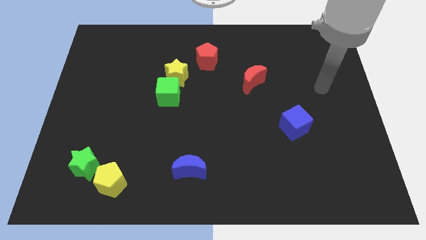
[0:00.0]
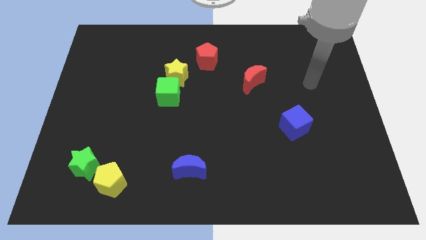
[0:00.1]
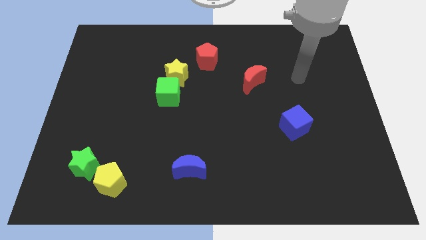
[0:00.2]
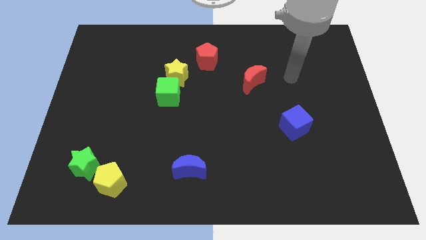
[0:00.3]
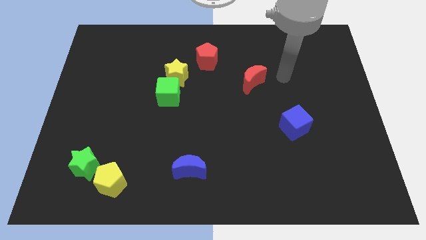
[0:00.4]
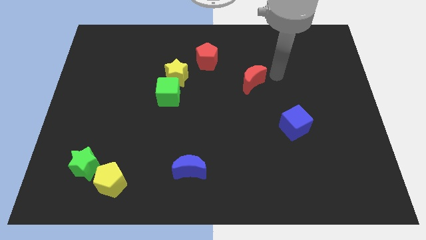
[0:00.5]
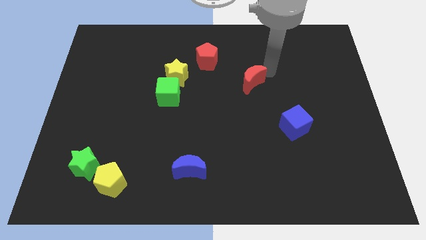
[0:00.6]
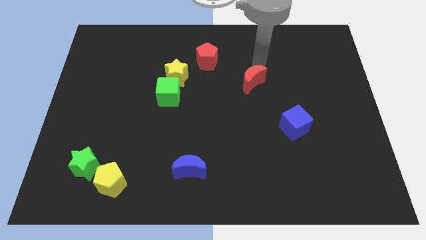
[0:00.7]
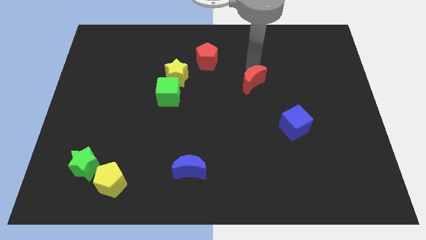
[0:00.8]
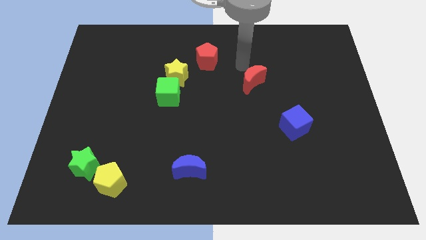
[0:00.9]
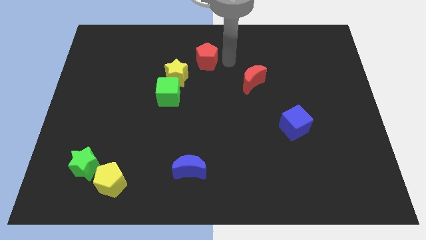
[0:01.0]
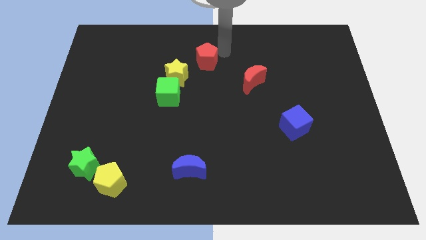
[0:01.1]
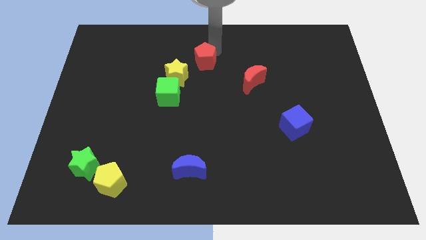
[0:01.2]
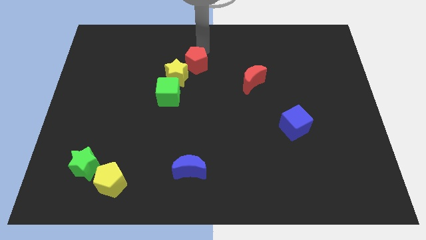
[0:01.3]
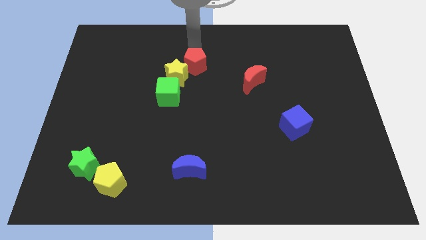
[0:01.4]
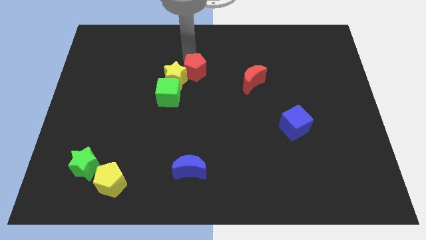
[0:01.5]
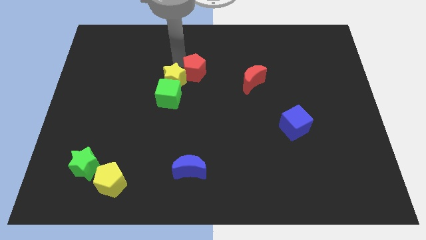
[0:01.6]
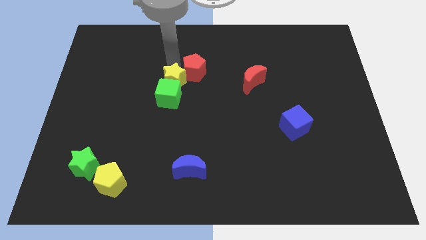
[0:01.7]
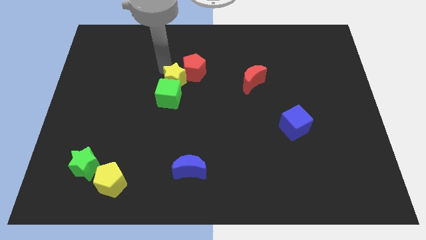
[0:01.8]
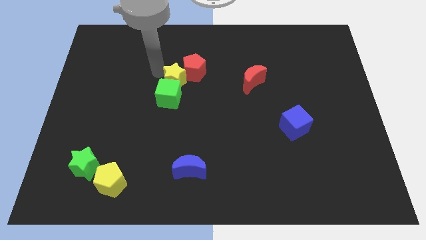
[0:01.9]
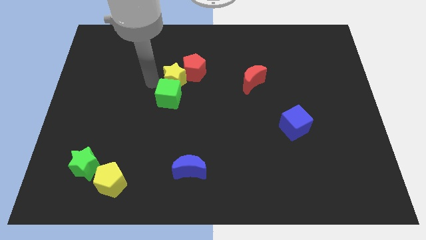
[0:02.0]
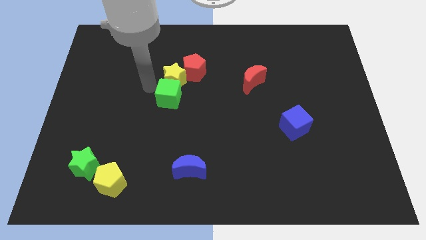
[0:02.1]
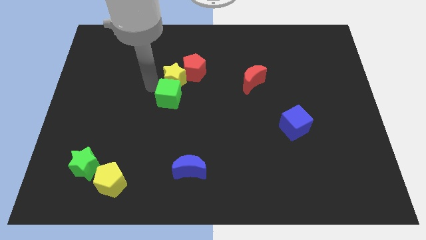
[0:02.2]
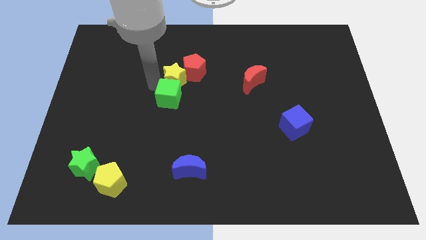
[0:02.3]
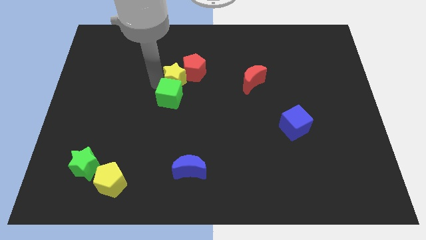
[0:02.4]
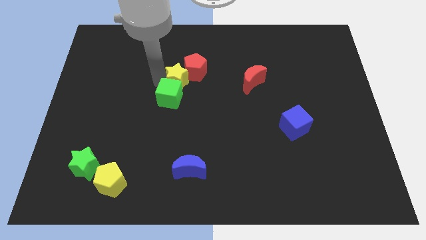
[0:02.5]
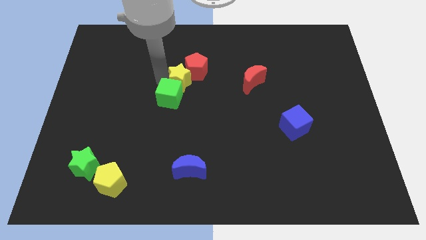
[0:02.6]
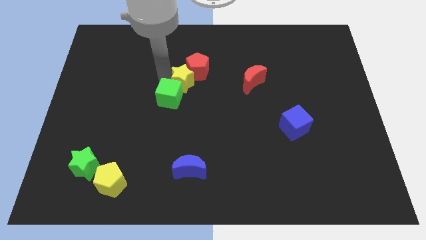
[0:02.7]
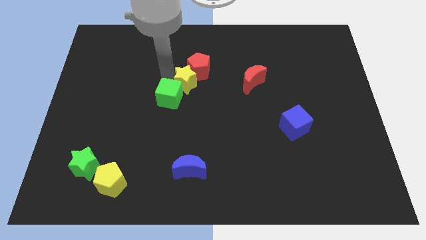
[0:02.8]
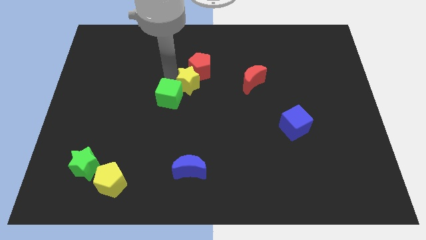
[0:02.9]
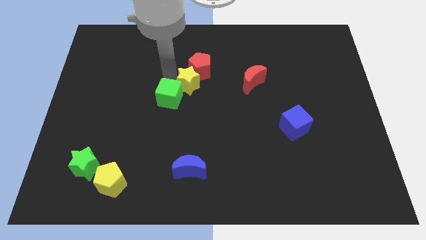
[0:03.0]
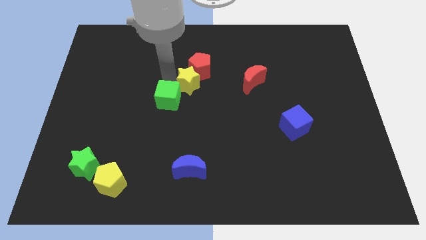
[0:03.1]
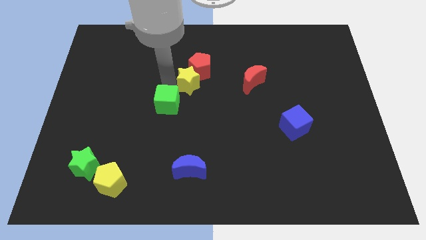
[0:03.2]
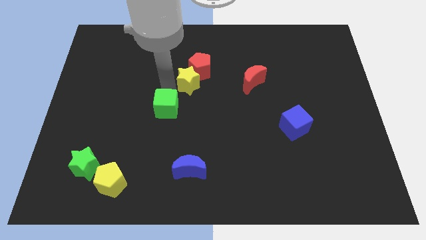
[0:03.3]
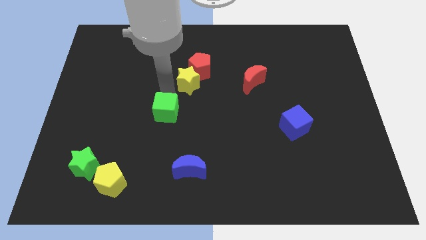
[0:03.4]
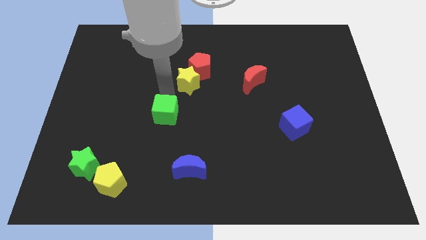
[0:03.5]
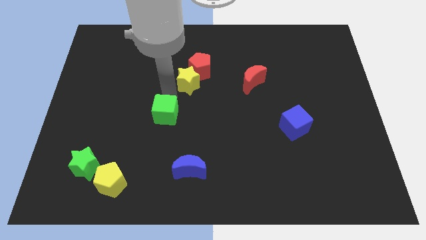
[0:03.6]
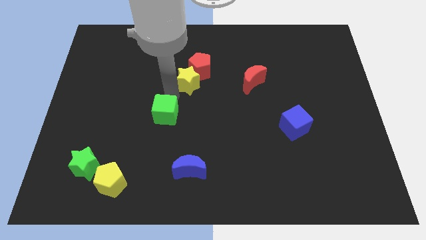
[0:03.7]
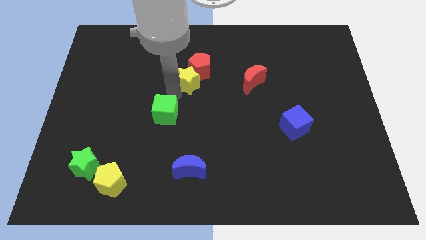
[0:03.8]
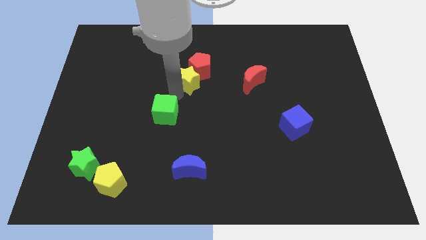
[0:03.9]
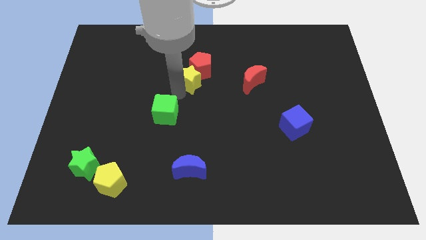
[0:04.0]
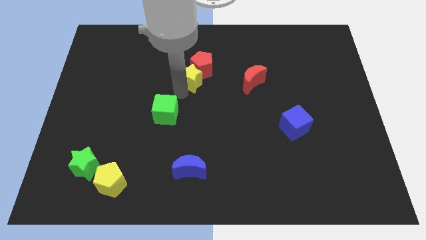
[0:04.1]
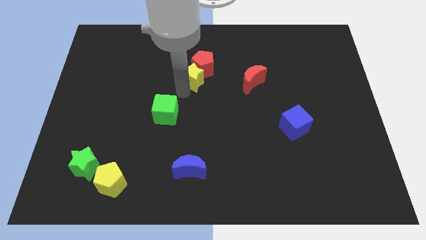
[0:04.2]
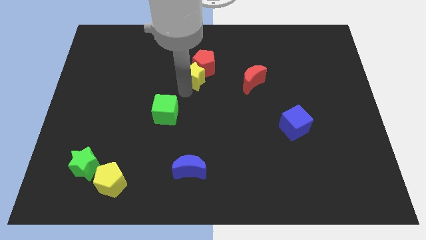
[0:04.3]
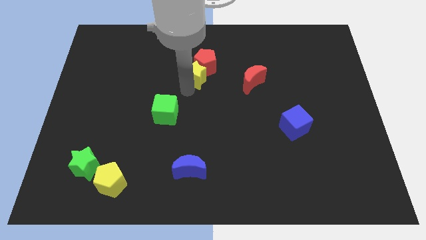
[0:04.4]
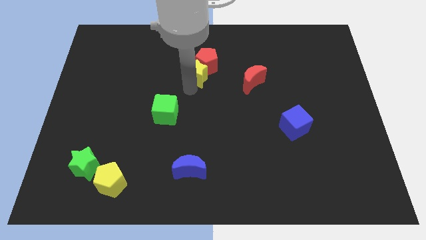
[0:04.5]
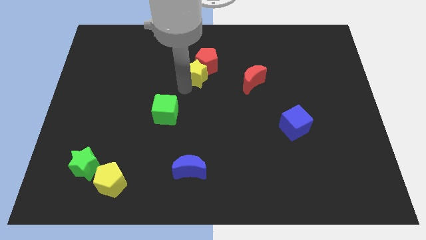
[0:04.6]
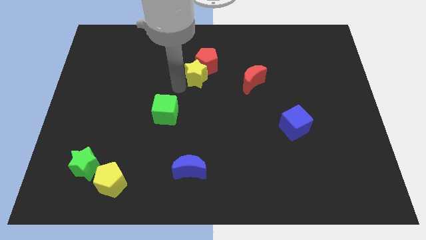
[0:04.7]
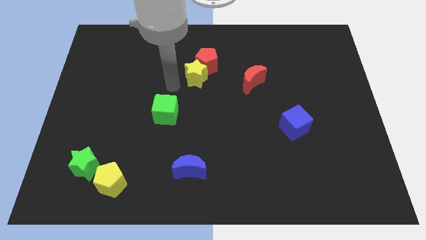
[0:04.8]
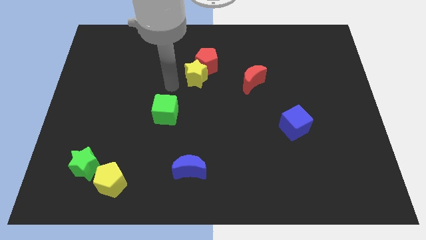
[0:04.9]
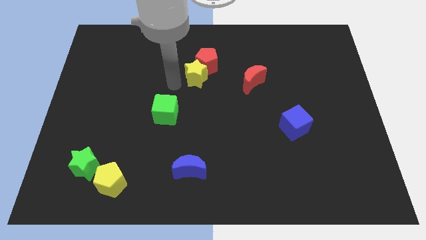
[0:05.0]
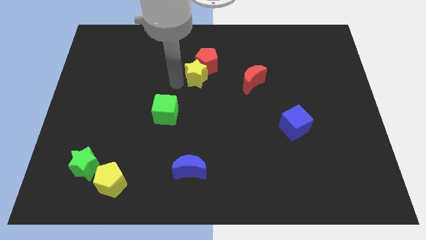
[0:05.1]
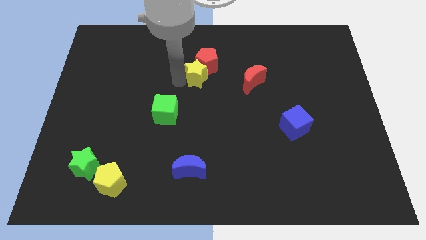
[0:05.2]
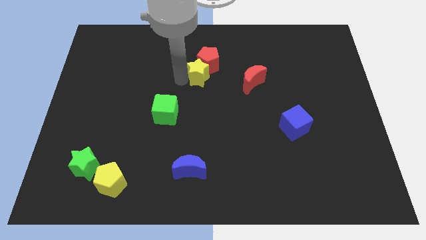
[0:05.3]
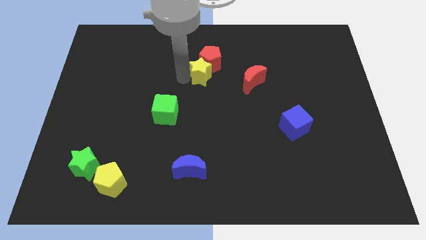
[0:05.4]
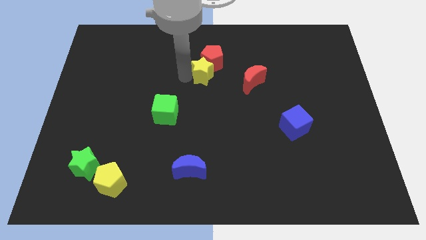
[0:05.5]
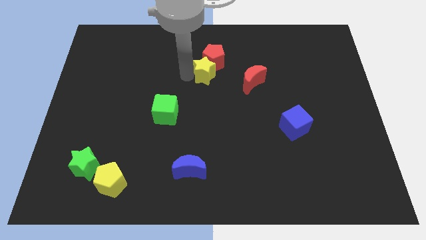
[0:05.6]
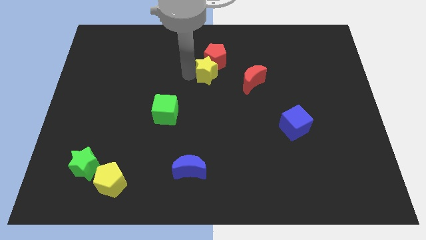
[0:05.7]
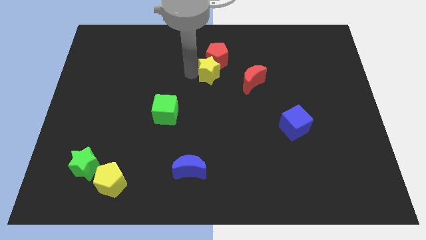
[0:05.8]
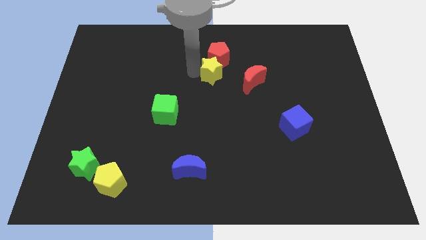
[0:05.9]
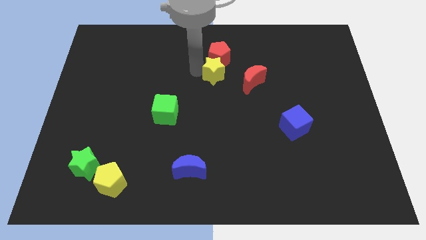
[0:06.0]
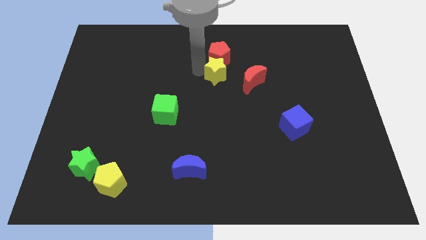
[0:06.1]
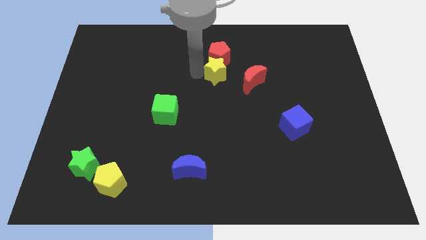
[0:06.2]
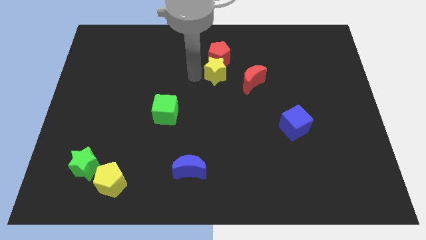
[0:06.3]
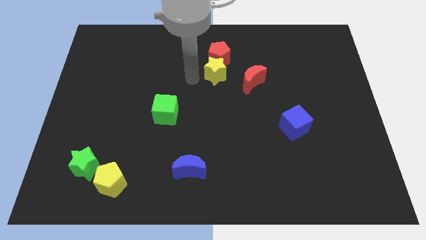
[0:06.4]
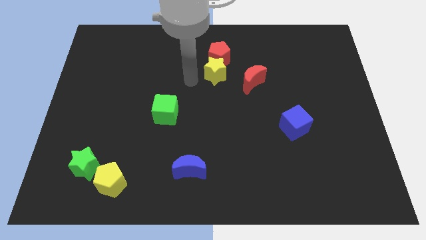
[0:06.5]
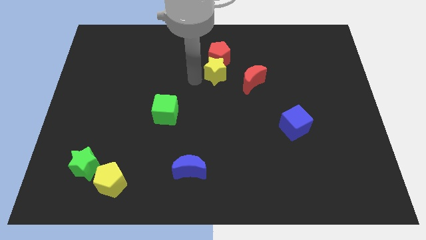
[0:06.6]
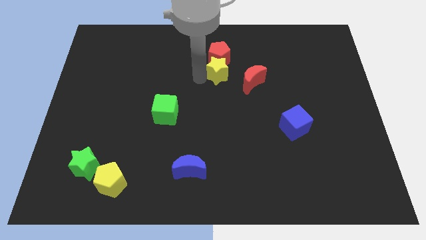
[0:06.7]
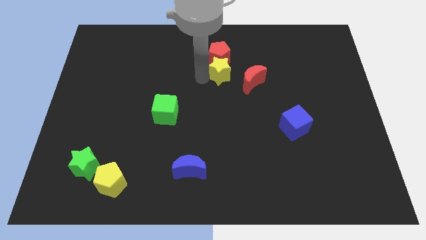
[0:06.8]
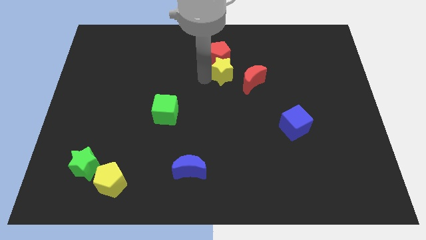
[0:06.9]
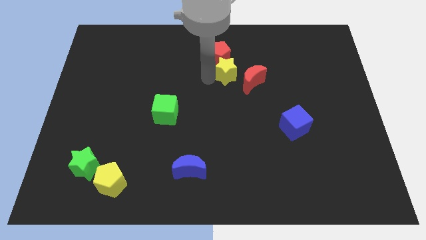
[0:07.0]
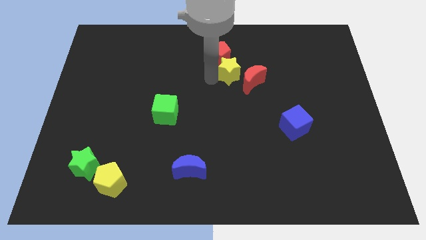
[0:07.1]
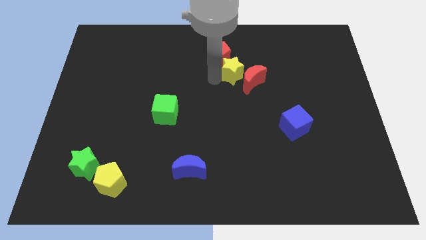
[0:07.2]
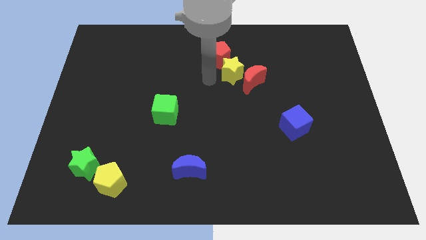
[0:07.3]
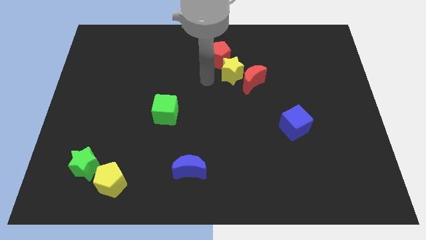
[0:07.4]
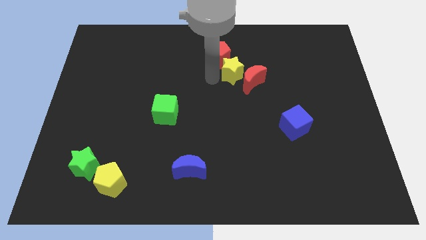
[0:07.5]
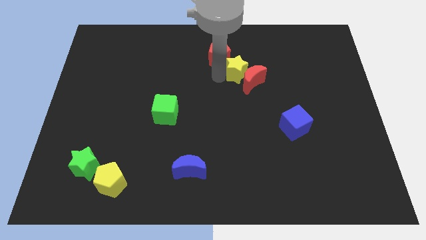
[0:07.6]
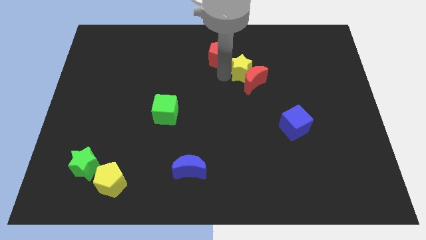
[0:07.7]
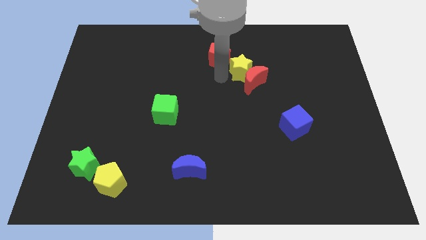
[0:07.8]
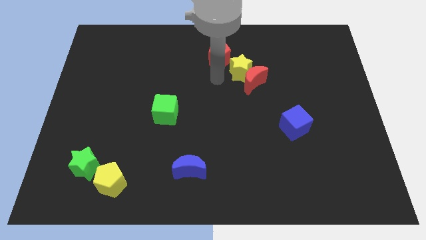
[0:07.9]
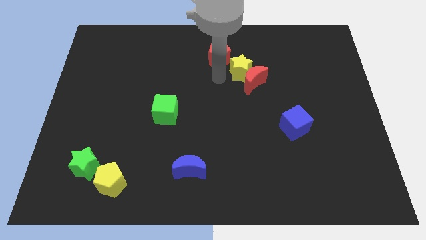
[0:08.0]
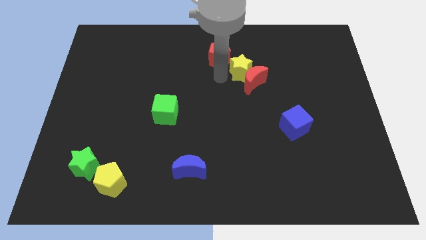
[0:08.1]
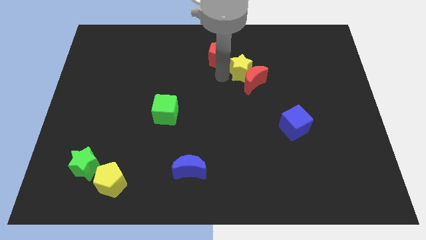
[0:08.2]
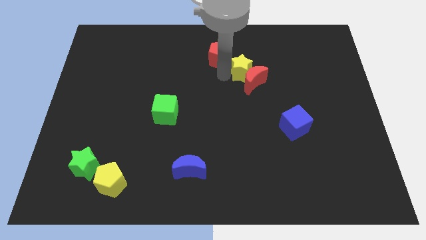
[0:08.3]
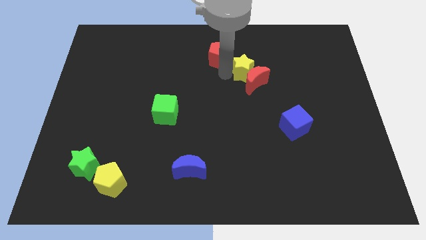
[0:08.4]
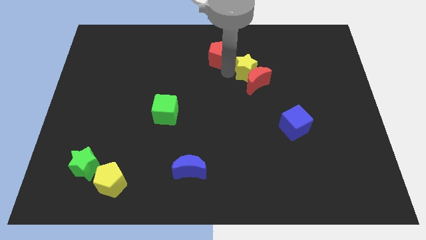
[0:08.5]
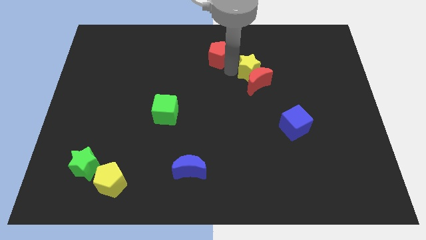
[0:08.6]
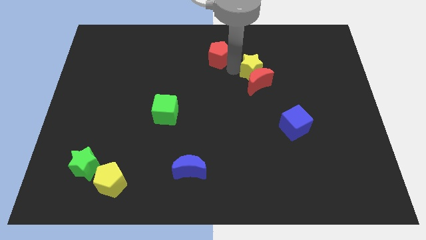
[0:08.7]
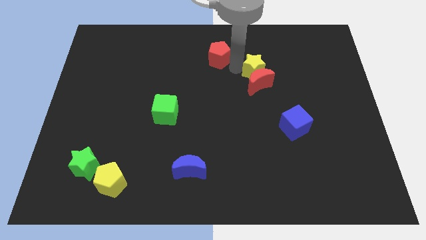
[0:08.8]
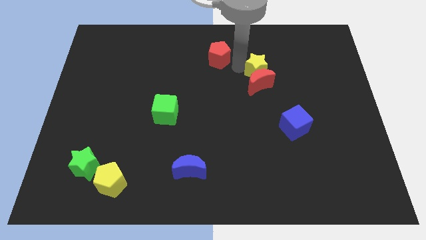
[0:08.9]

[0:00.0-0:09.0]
slide the yellow star to the right
